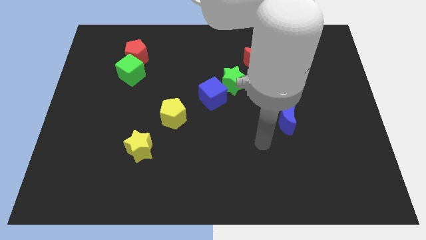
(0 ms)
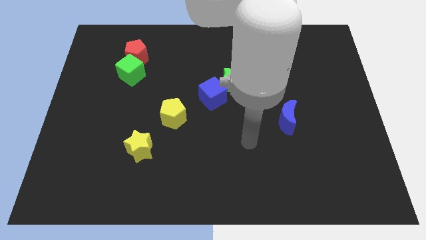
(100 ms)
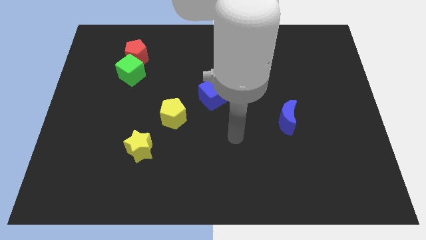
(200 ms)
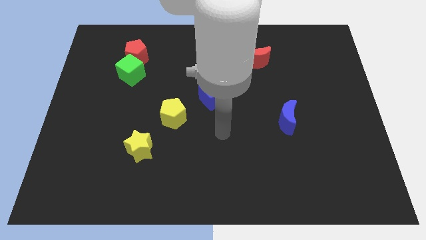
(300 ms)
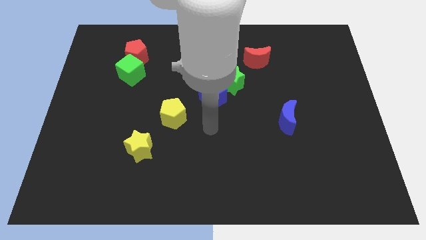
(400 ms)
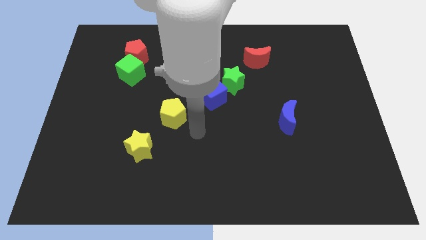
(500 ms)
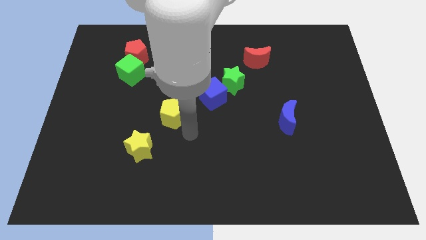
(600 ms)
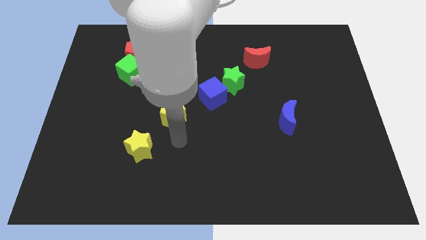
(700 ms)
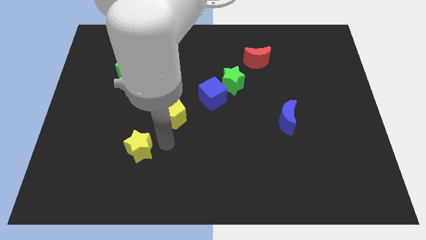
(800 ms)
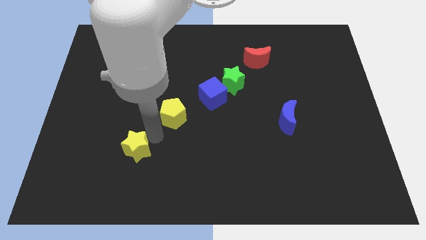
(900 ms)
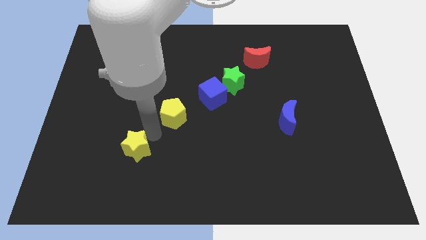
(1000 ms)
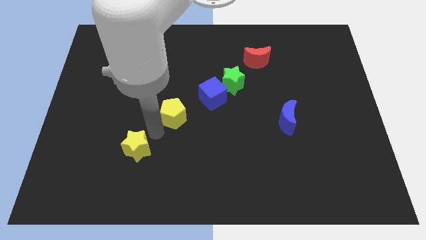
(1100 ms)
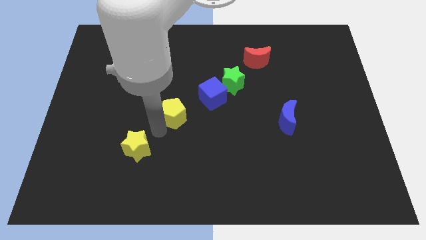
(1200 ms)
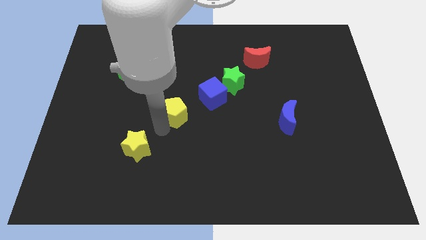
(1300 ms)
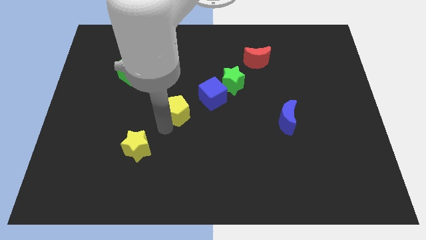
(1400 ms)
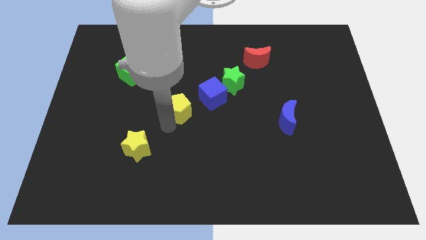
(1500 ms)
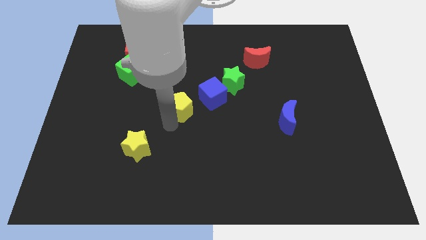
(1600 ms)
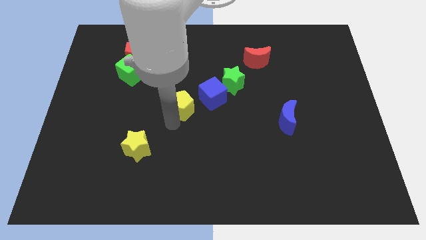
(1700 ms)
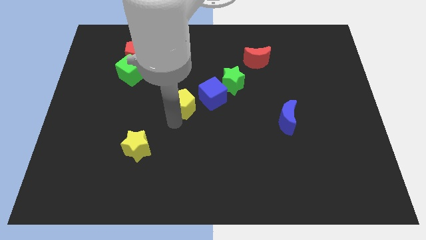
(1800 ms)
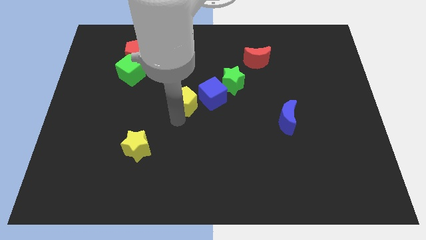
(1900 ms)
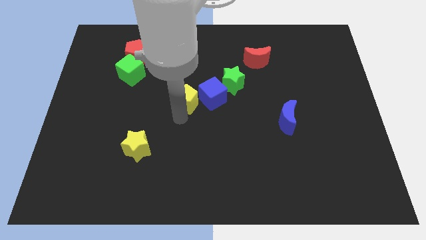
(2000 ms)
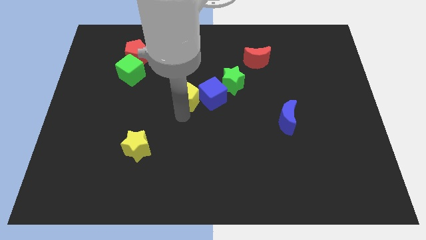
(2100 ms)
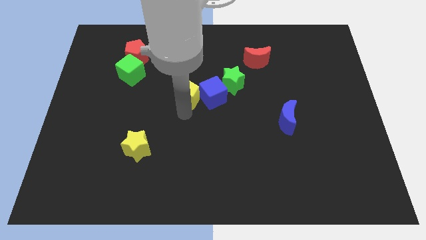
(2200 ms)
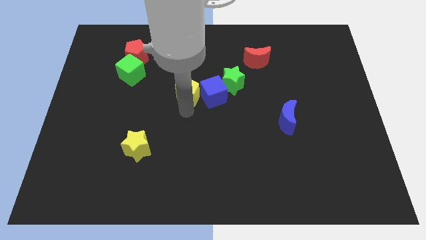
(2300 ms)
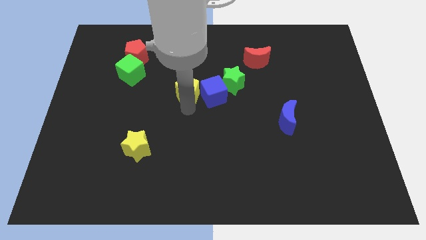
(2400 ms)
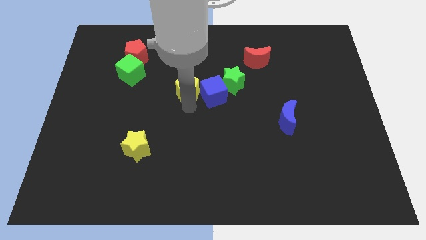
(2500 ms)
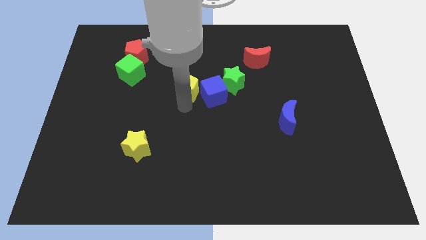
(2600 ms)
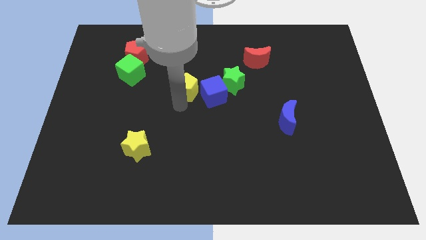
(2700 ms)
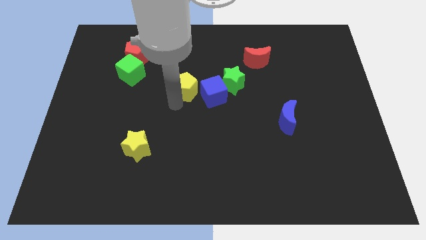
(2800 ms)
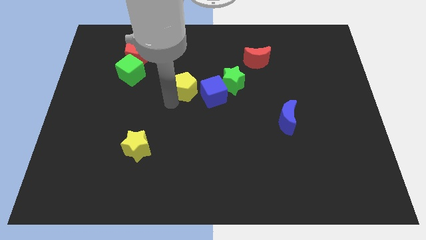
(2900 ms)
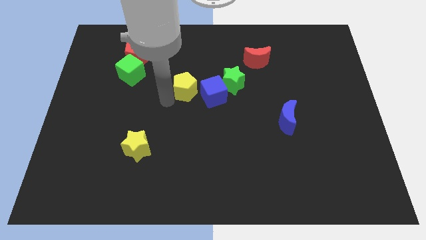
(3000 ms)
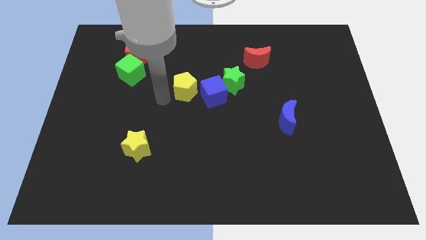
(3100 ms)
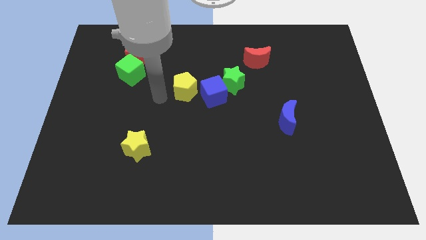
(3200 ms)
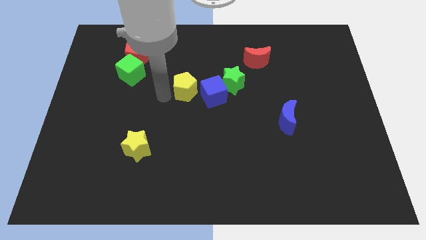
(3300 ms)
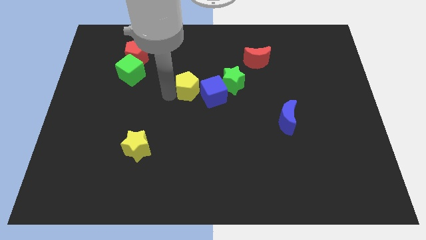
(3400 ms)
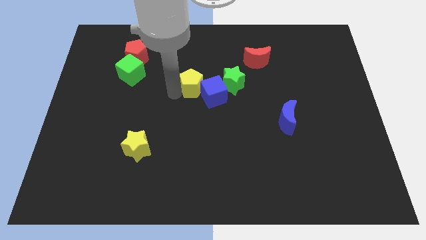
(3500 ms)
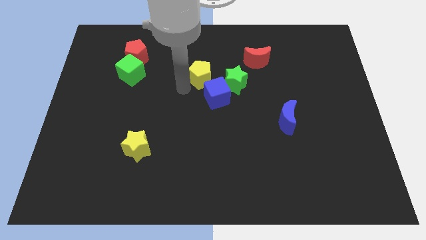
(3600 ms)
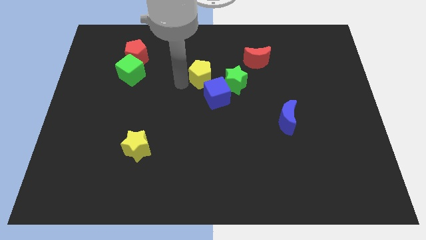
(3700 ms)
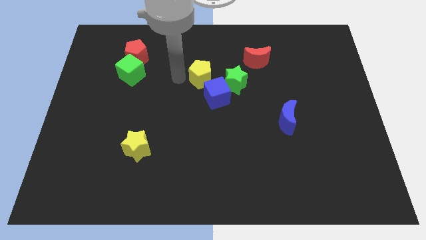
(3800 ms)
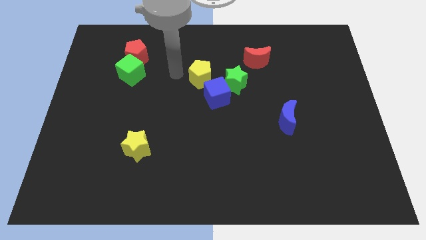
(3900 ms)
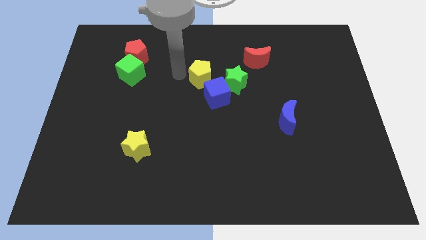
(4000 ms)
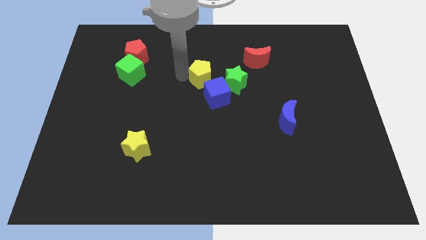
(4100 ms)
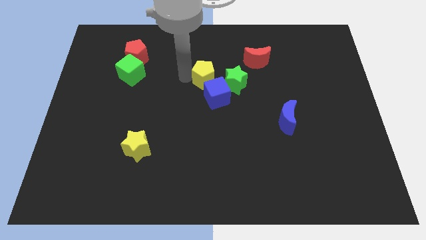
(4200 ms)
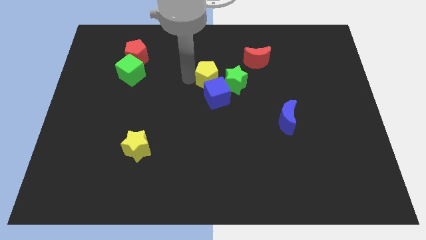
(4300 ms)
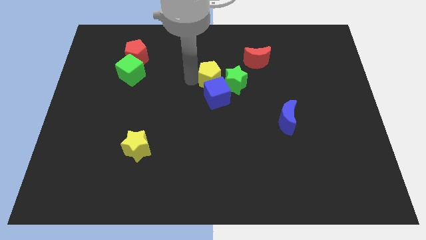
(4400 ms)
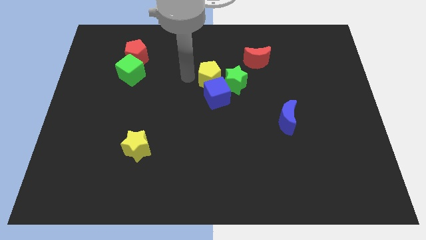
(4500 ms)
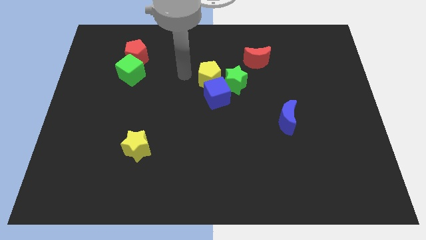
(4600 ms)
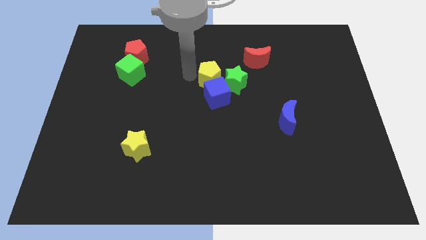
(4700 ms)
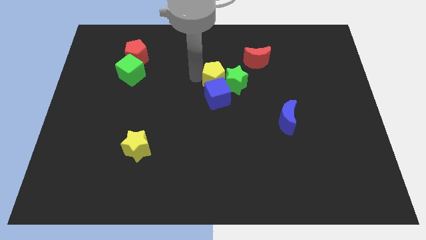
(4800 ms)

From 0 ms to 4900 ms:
put the yellow pentagon close to the green star
